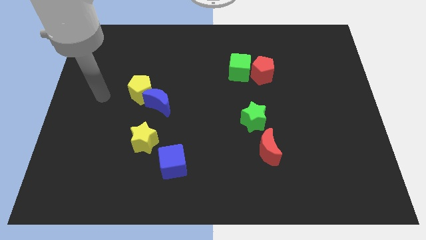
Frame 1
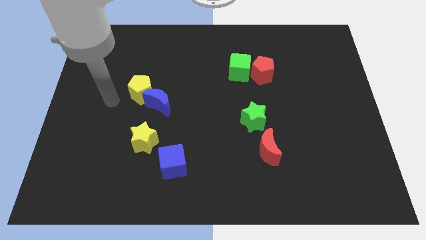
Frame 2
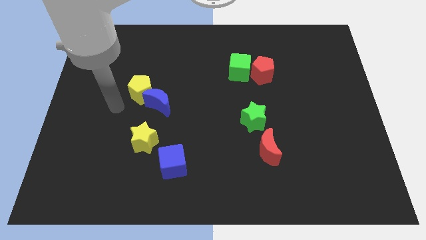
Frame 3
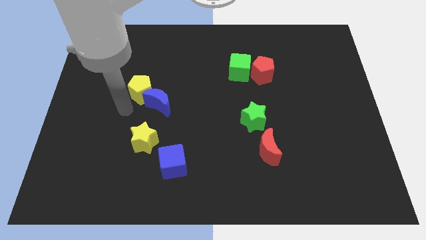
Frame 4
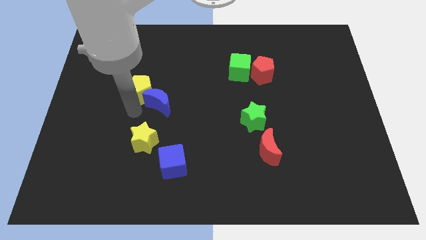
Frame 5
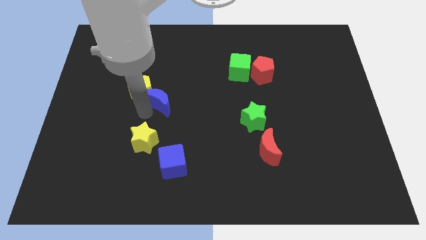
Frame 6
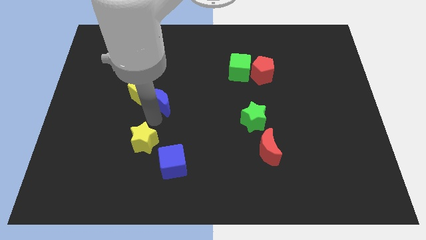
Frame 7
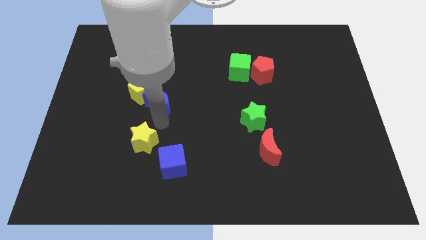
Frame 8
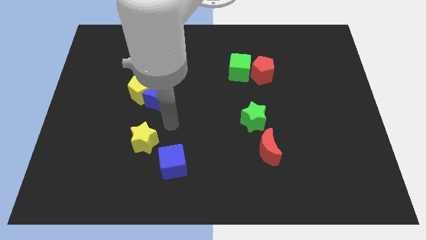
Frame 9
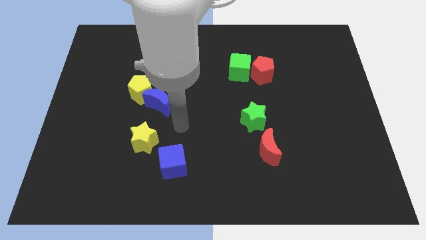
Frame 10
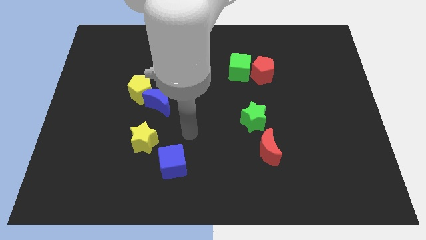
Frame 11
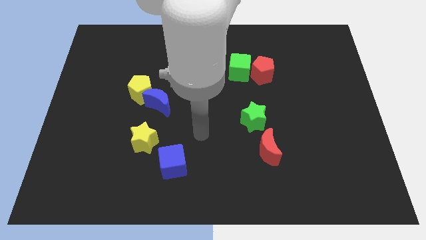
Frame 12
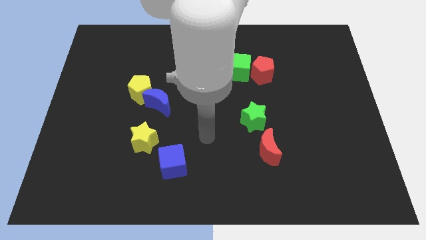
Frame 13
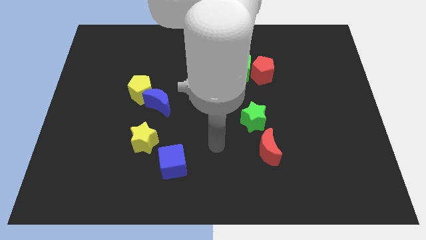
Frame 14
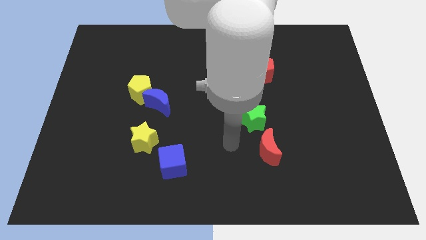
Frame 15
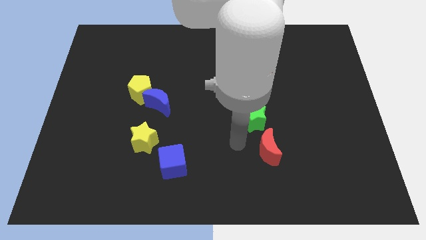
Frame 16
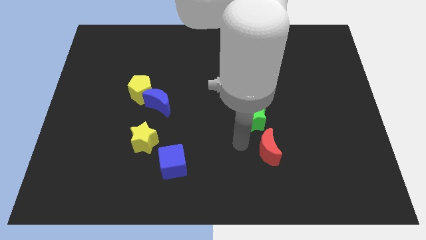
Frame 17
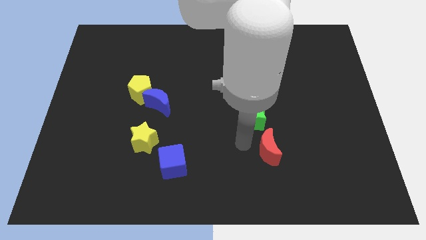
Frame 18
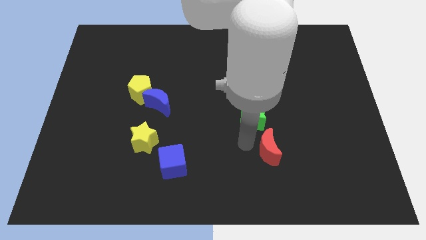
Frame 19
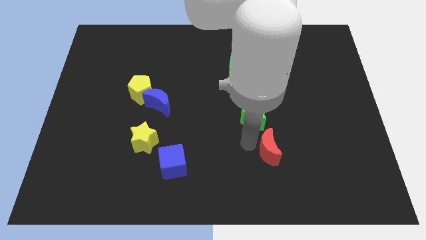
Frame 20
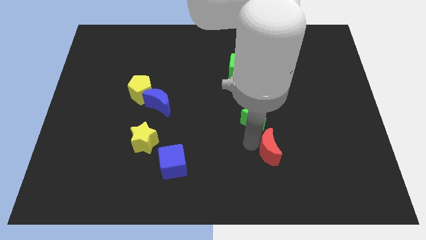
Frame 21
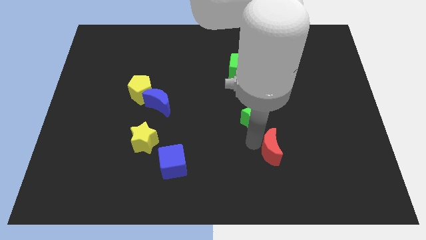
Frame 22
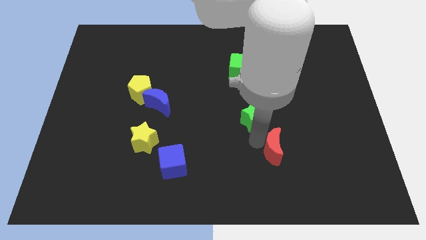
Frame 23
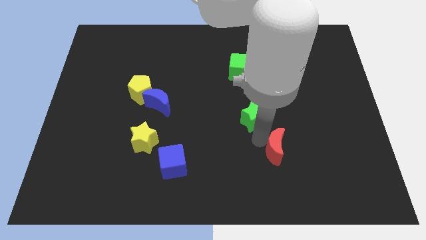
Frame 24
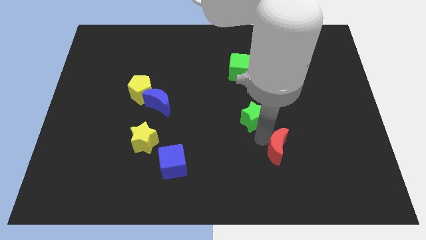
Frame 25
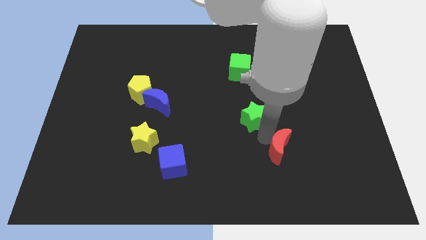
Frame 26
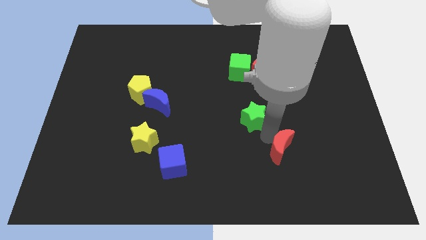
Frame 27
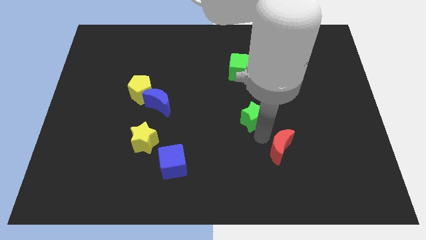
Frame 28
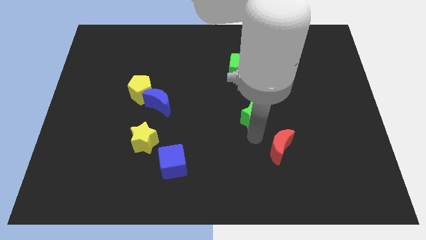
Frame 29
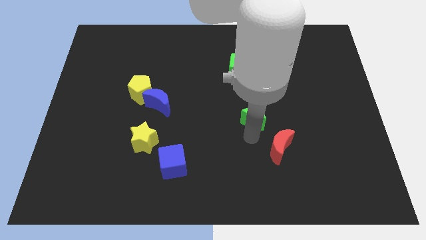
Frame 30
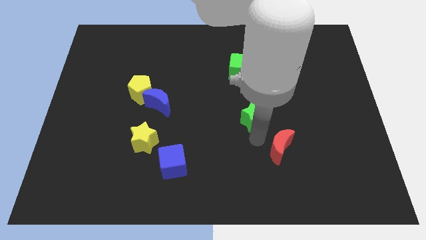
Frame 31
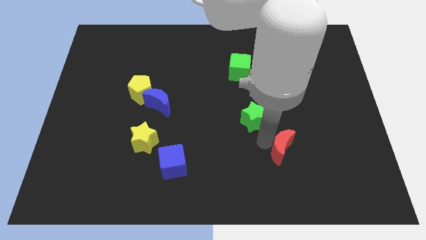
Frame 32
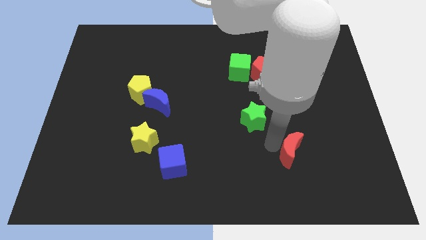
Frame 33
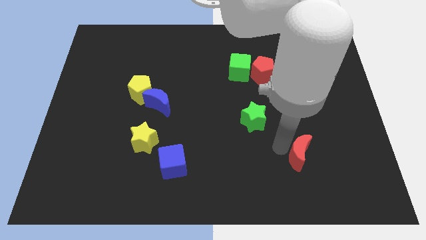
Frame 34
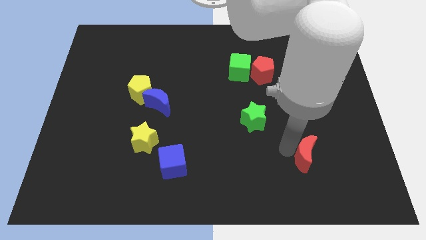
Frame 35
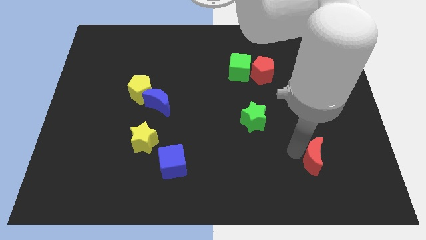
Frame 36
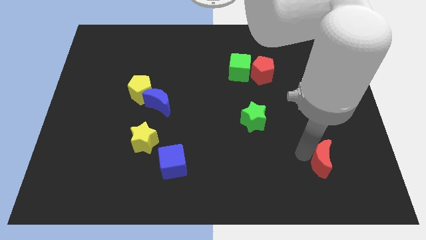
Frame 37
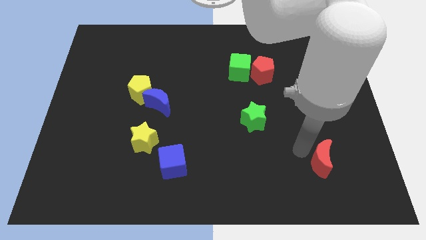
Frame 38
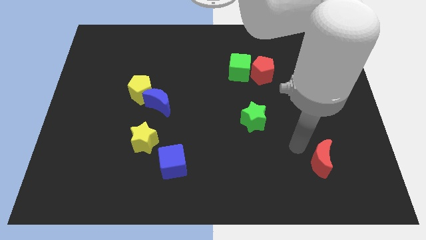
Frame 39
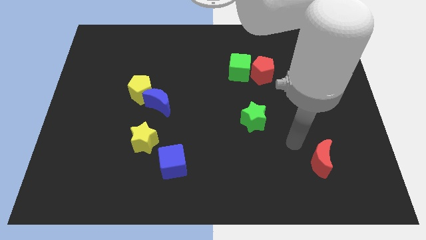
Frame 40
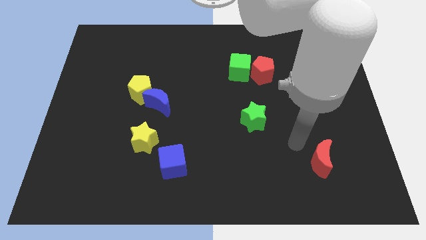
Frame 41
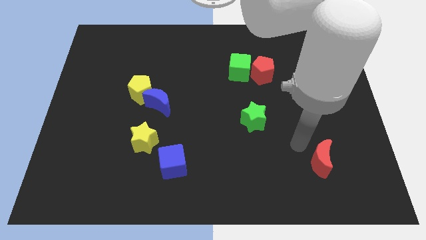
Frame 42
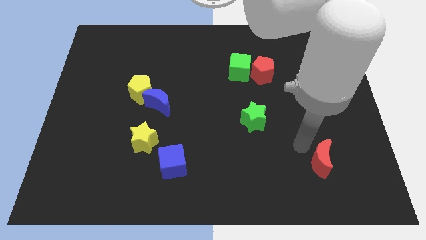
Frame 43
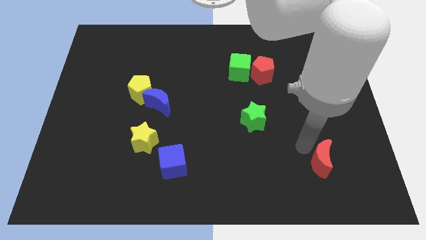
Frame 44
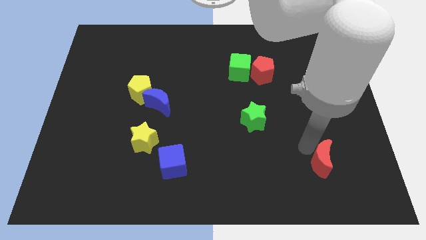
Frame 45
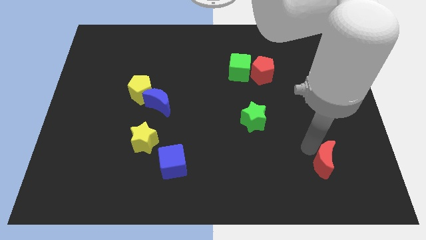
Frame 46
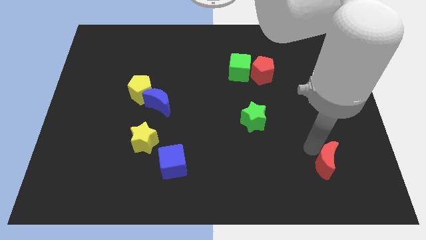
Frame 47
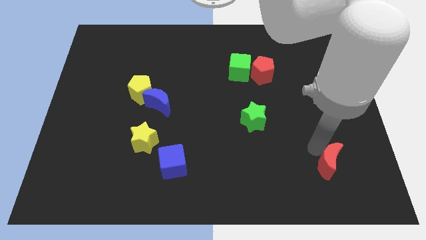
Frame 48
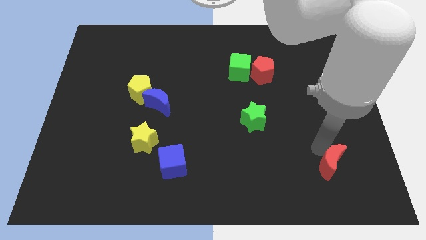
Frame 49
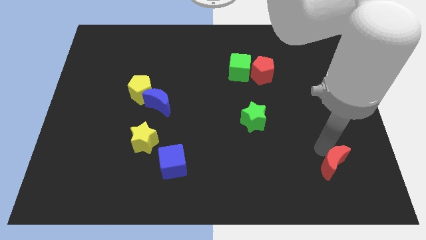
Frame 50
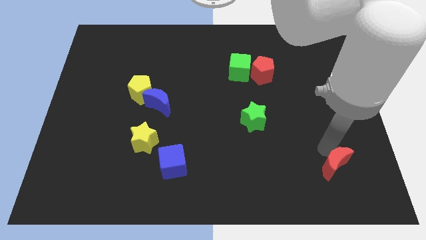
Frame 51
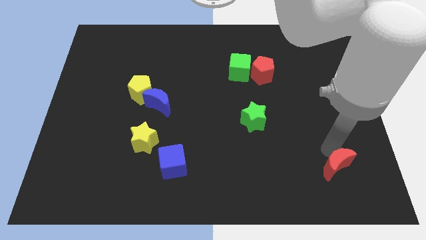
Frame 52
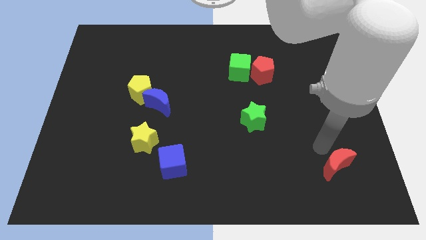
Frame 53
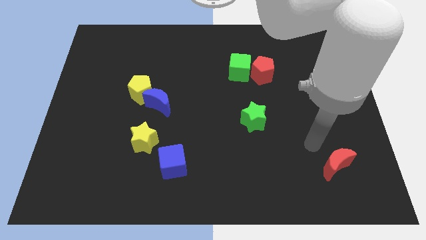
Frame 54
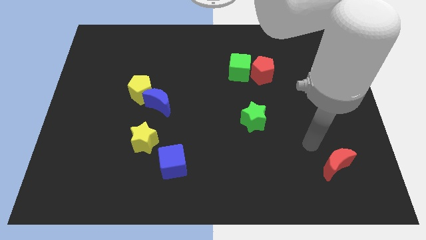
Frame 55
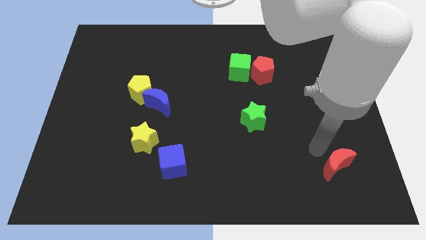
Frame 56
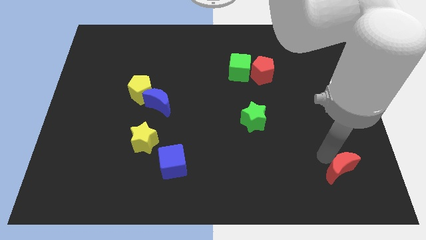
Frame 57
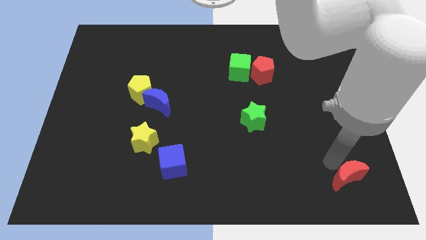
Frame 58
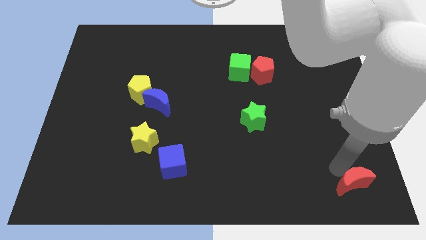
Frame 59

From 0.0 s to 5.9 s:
push the red moon to the bottom right corner

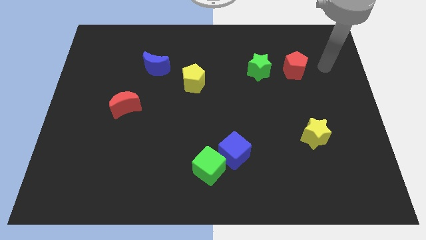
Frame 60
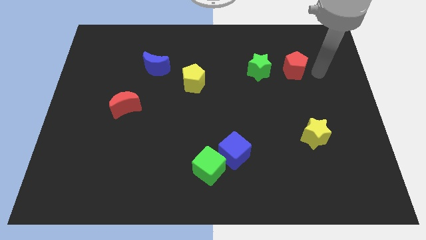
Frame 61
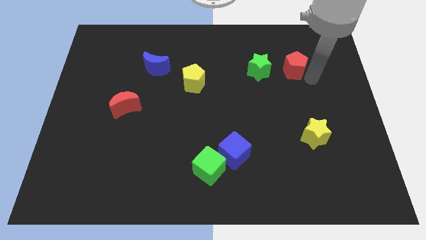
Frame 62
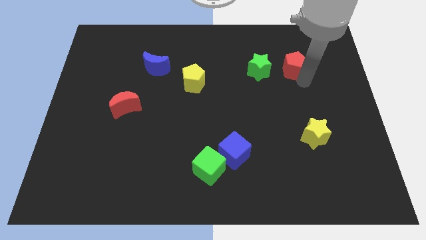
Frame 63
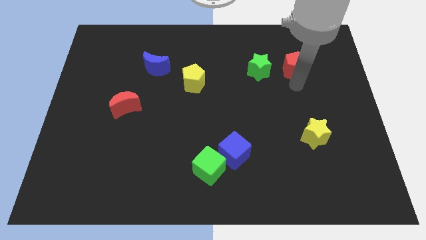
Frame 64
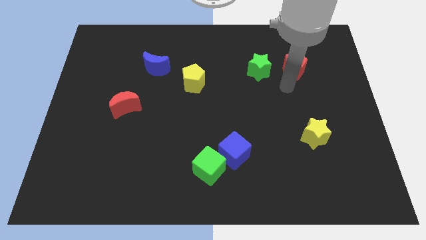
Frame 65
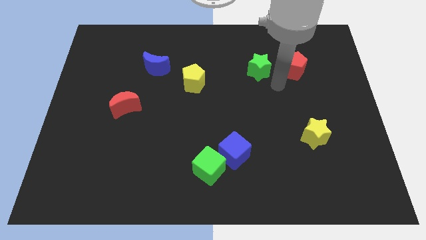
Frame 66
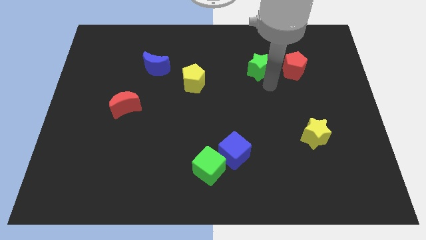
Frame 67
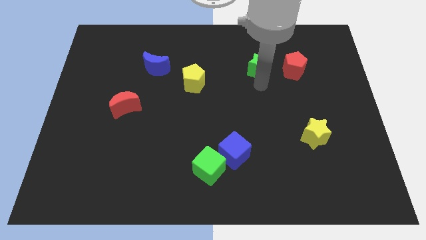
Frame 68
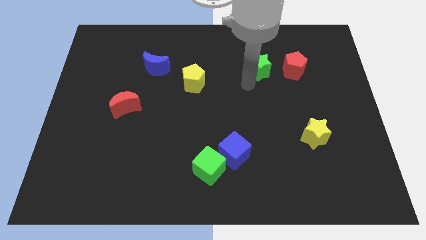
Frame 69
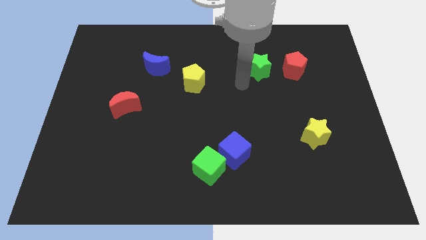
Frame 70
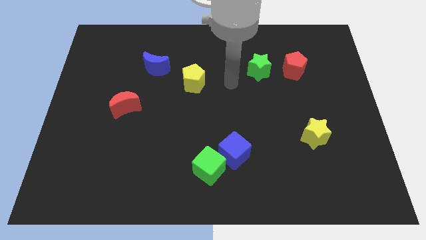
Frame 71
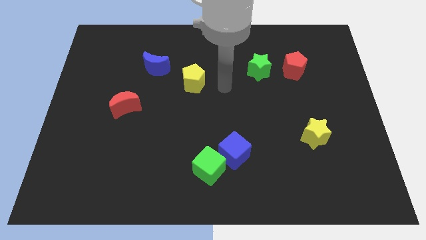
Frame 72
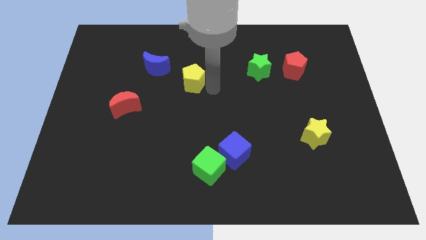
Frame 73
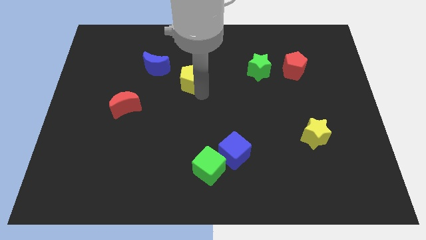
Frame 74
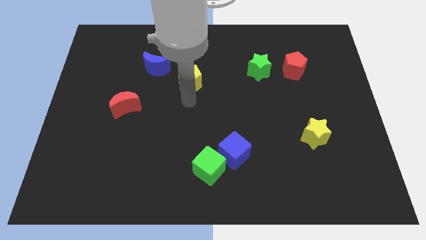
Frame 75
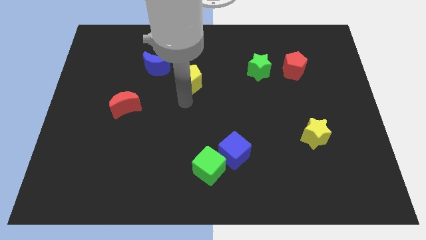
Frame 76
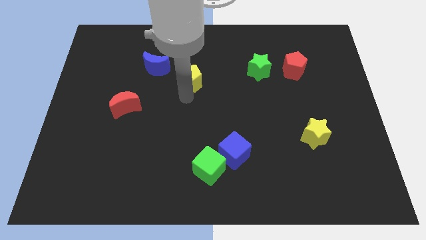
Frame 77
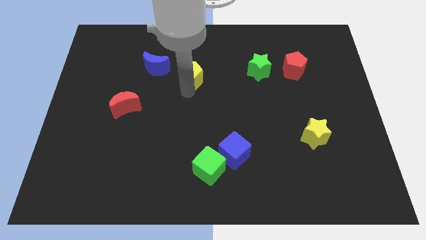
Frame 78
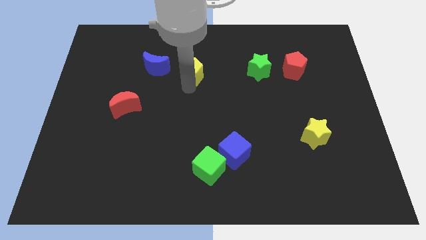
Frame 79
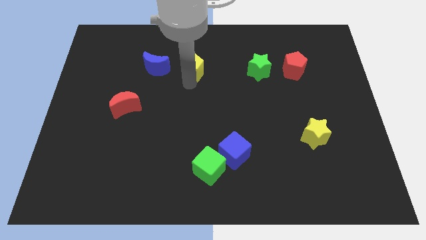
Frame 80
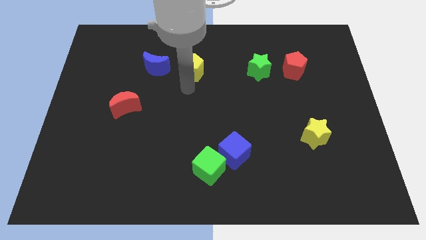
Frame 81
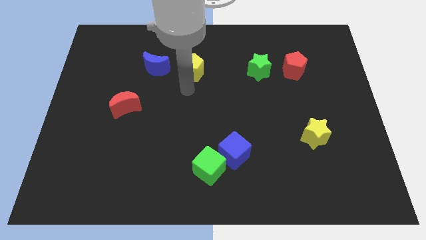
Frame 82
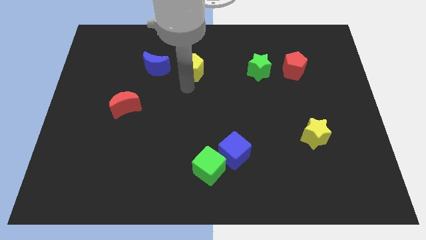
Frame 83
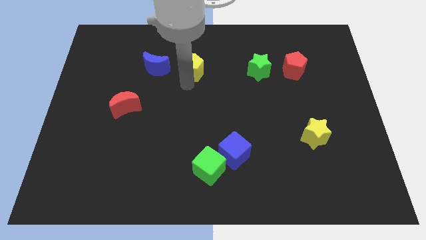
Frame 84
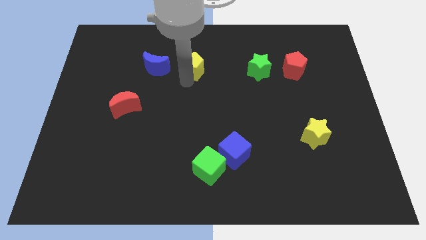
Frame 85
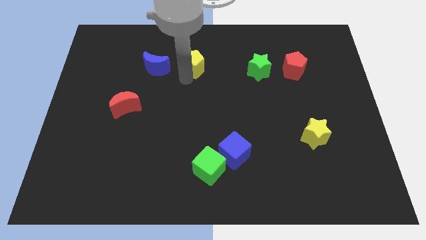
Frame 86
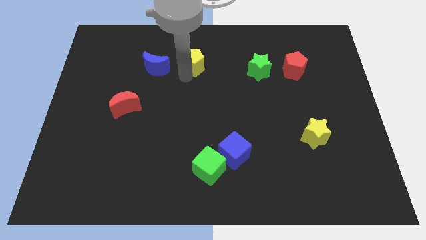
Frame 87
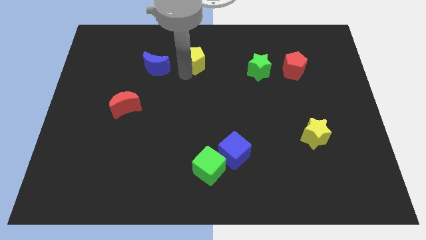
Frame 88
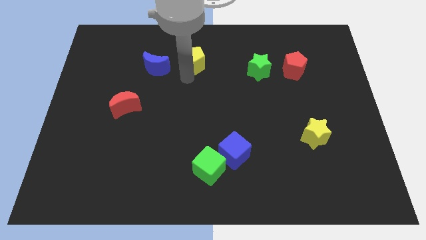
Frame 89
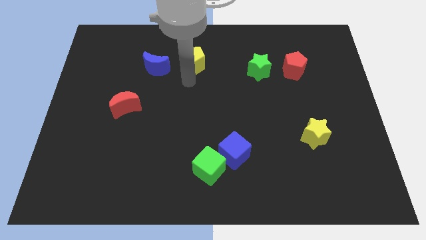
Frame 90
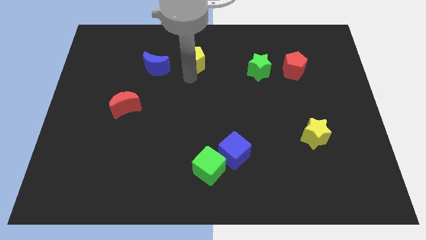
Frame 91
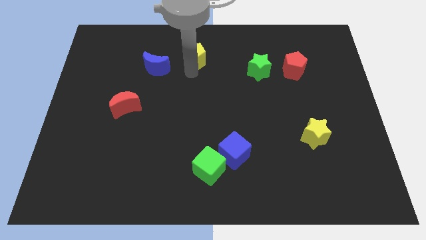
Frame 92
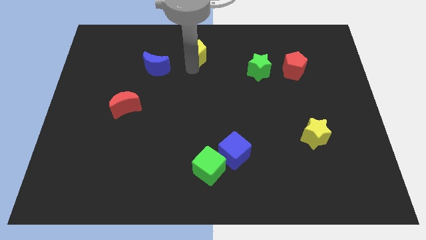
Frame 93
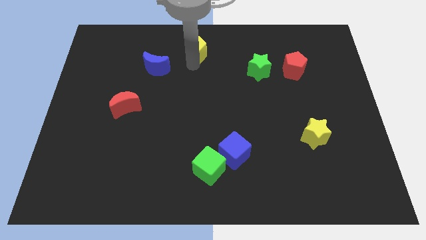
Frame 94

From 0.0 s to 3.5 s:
slide the yellow pentagon to the top
